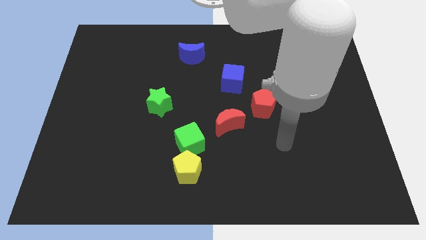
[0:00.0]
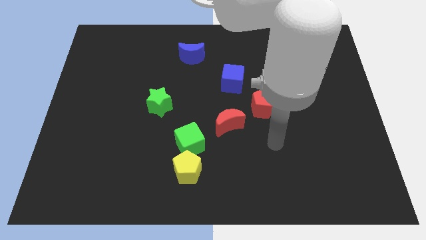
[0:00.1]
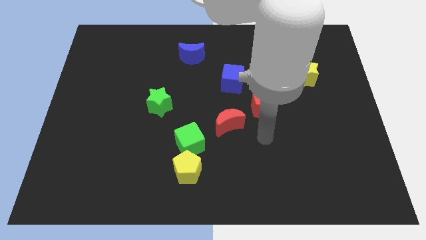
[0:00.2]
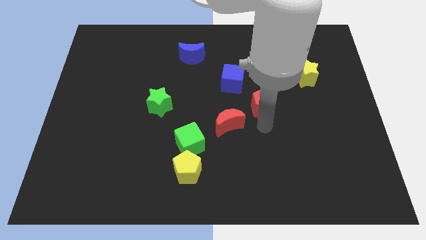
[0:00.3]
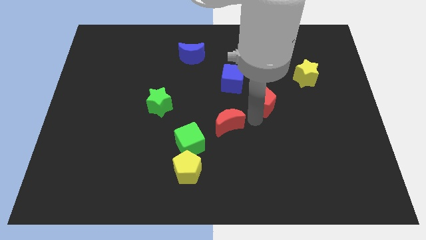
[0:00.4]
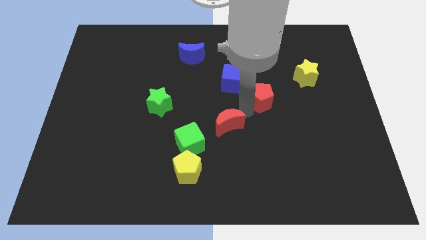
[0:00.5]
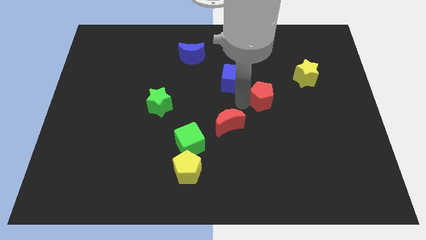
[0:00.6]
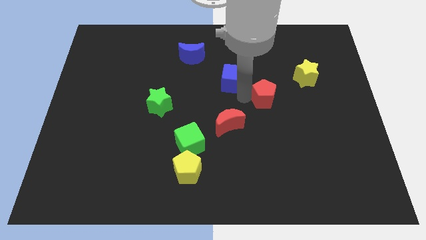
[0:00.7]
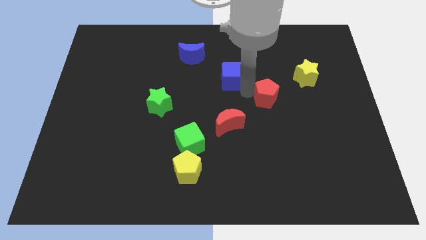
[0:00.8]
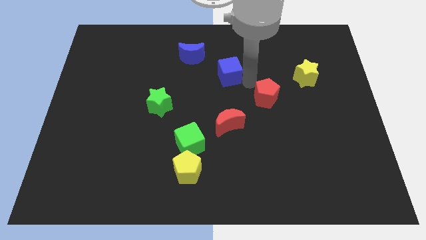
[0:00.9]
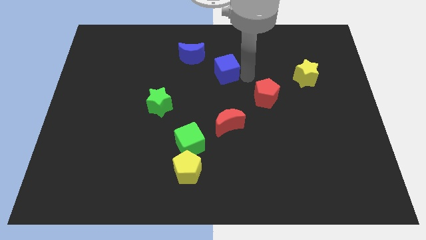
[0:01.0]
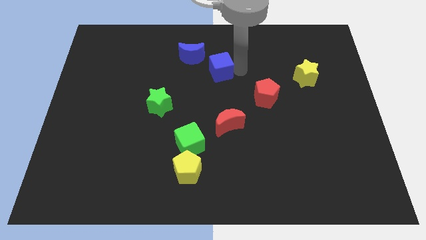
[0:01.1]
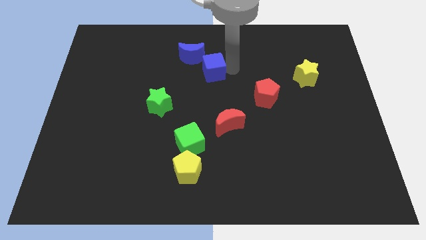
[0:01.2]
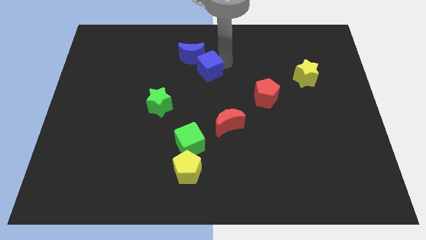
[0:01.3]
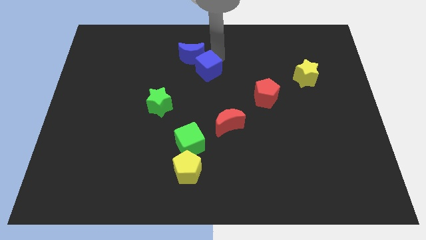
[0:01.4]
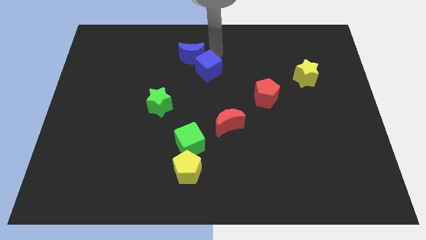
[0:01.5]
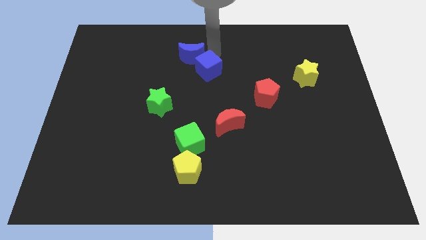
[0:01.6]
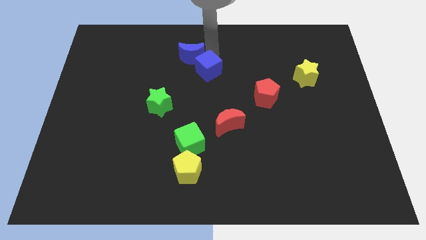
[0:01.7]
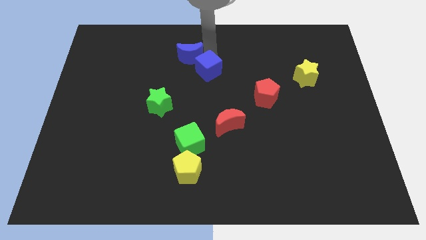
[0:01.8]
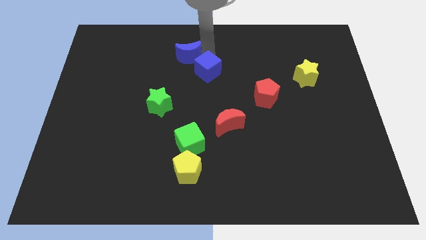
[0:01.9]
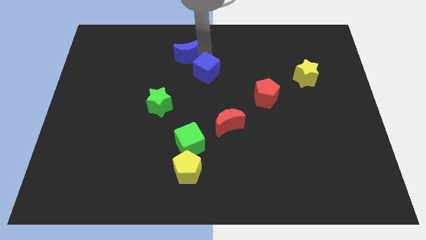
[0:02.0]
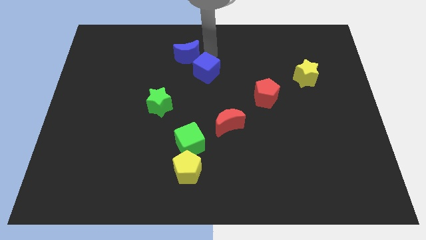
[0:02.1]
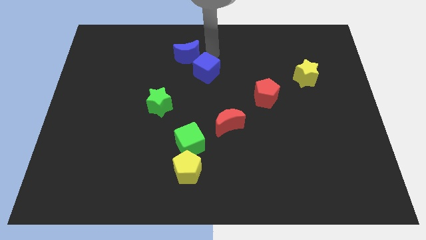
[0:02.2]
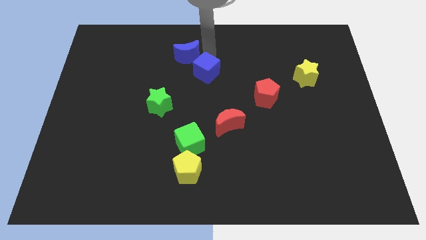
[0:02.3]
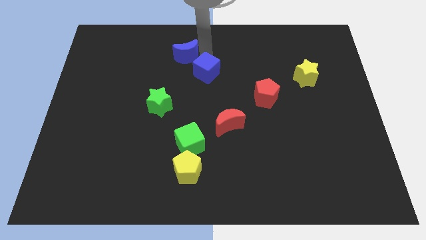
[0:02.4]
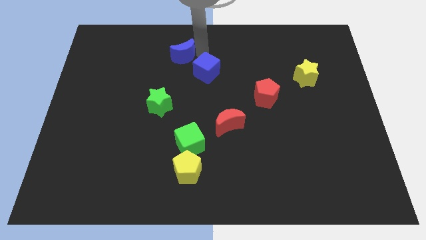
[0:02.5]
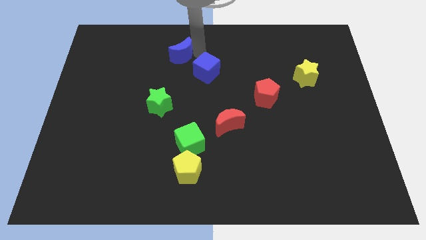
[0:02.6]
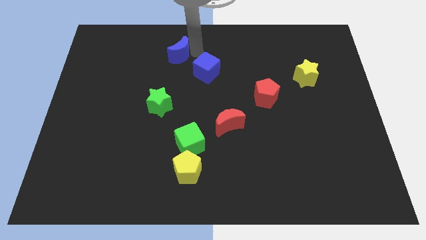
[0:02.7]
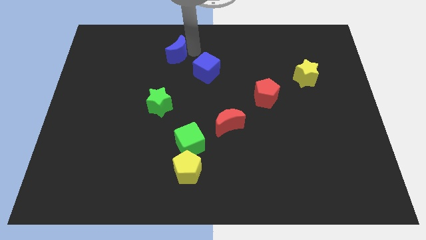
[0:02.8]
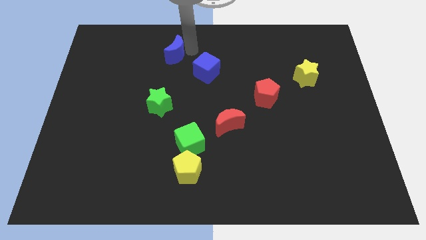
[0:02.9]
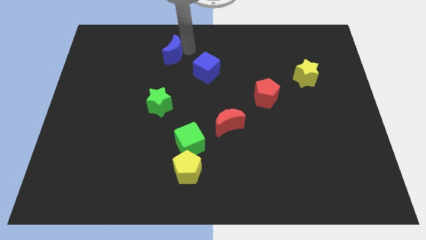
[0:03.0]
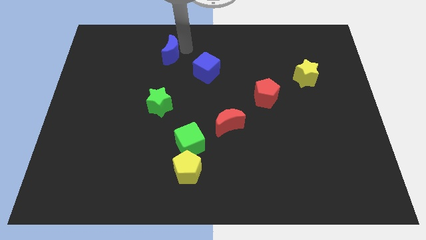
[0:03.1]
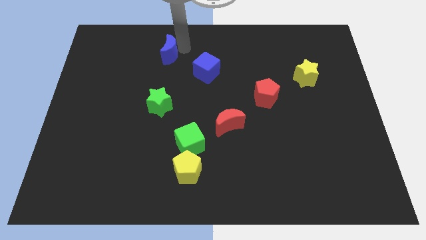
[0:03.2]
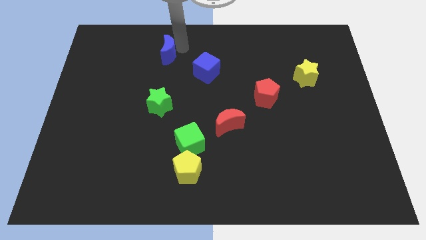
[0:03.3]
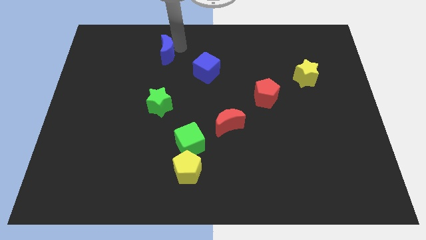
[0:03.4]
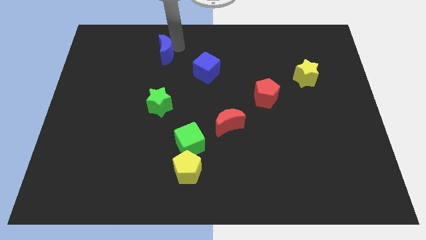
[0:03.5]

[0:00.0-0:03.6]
slide the blue moon a bit to the left

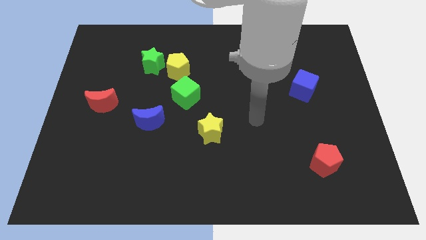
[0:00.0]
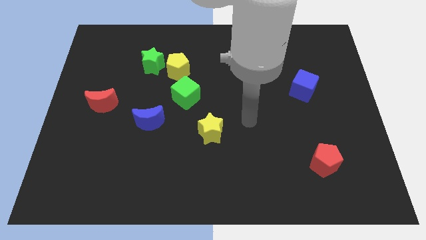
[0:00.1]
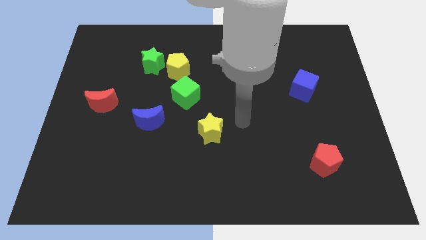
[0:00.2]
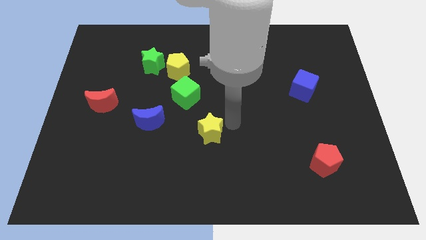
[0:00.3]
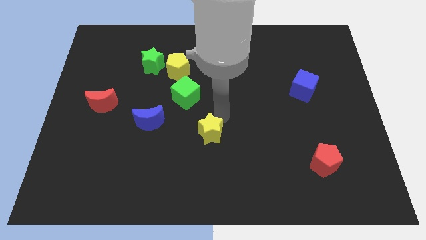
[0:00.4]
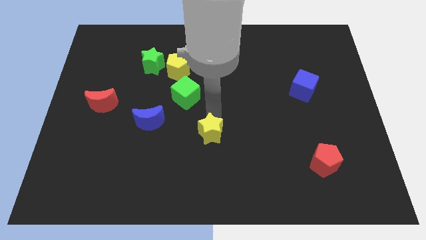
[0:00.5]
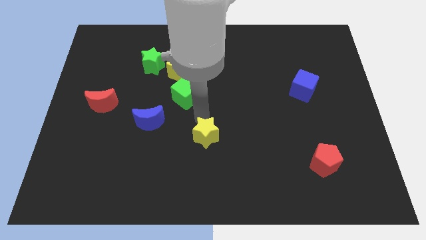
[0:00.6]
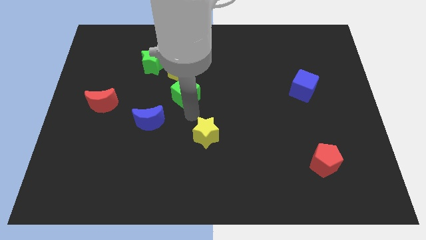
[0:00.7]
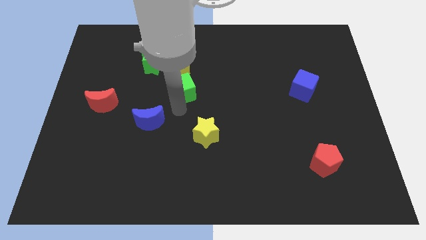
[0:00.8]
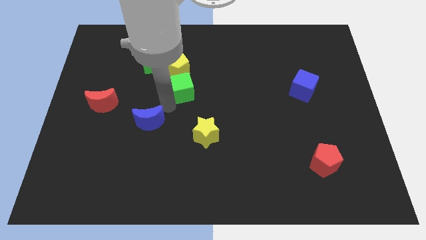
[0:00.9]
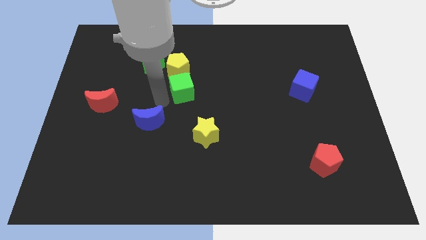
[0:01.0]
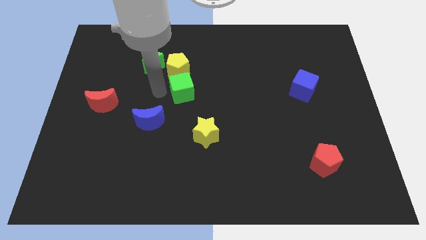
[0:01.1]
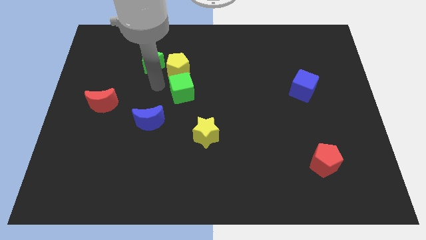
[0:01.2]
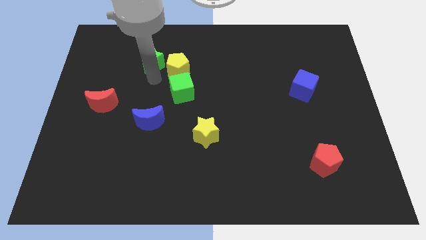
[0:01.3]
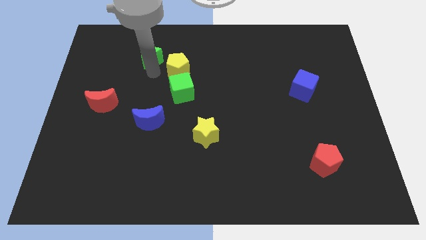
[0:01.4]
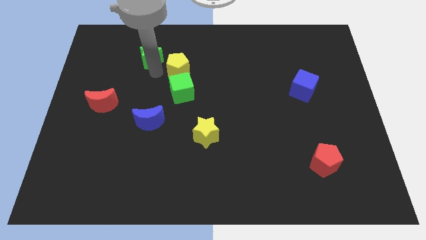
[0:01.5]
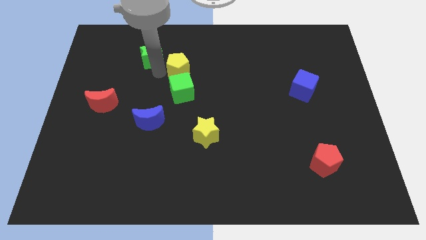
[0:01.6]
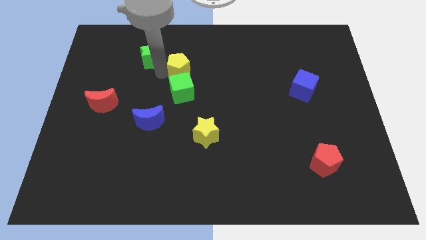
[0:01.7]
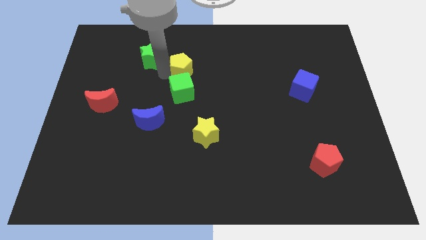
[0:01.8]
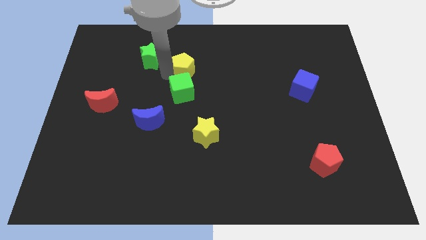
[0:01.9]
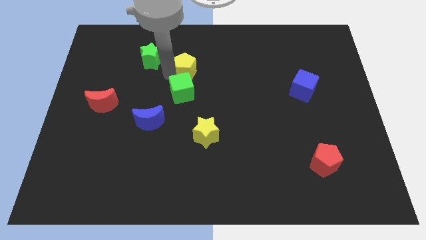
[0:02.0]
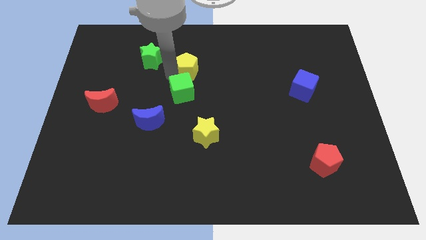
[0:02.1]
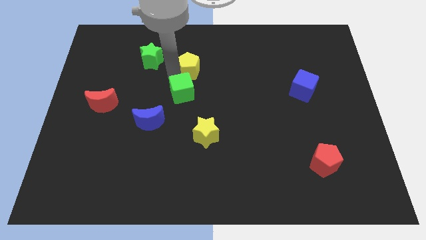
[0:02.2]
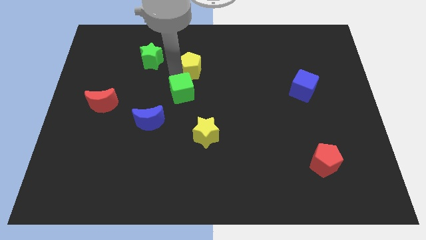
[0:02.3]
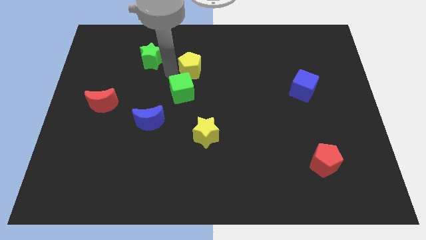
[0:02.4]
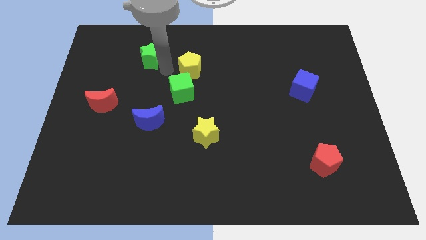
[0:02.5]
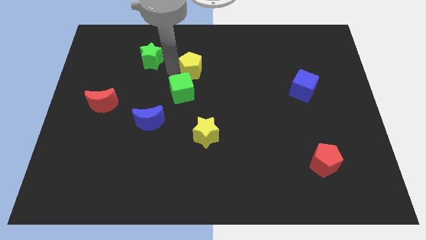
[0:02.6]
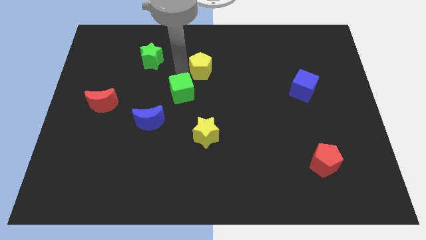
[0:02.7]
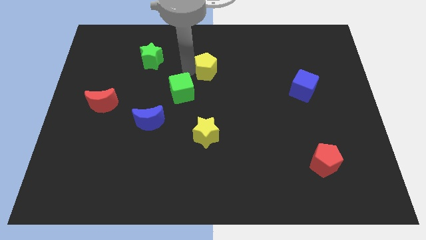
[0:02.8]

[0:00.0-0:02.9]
slide the yellow pentagon right a little bit

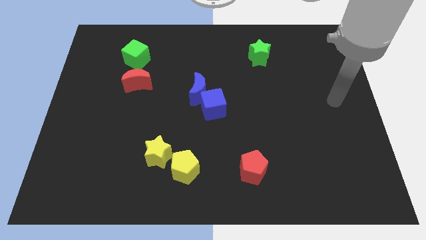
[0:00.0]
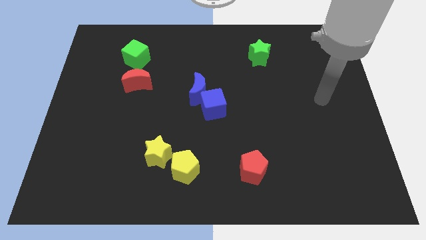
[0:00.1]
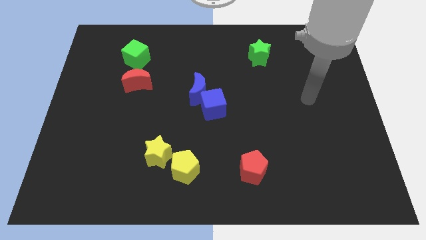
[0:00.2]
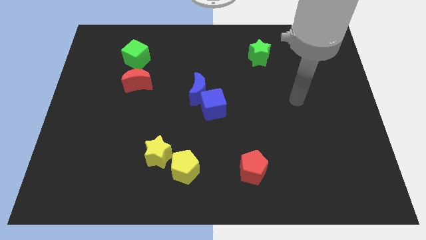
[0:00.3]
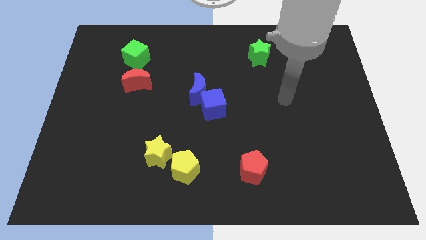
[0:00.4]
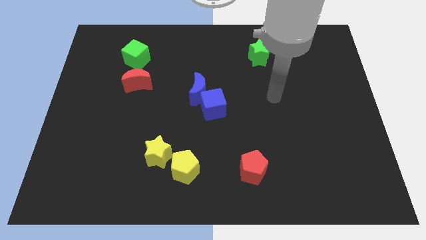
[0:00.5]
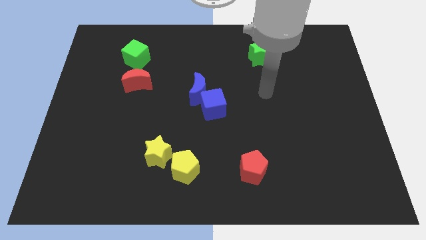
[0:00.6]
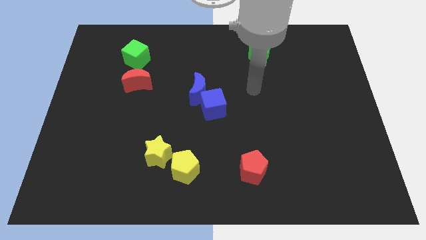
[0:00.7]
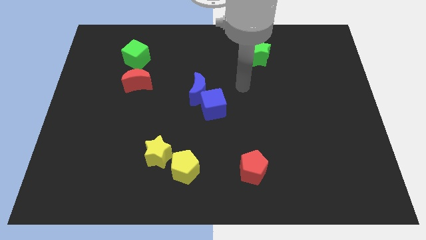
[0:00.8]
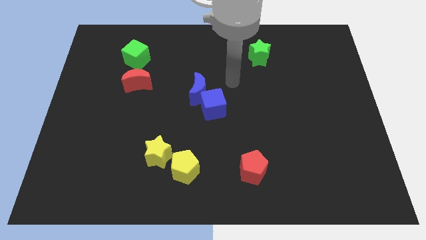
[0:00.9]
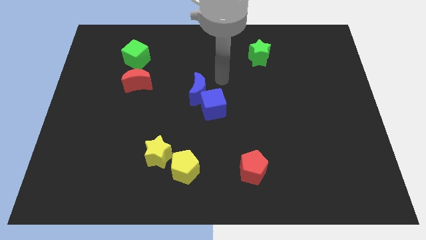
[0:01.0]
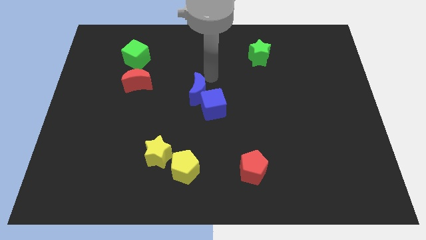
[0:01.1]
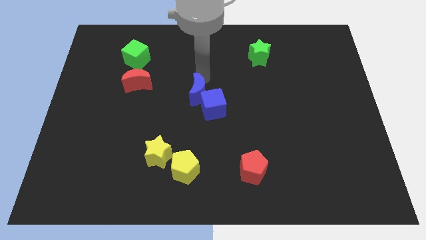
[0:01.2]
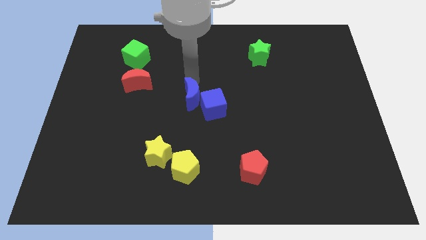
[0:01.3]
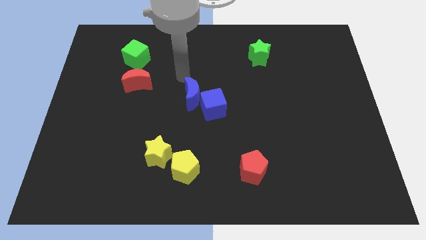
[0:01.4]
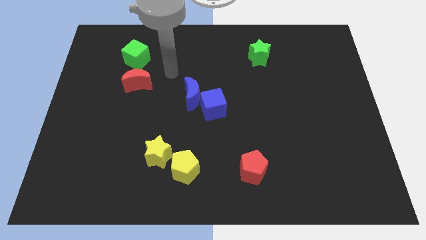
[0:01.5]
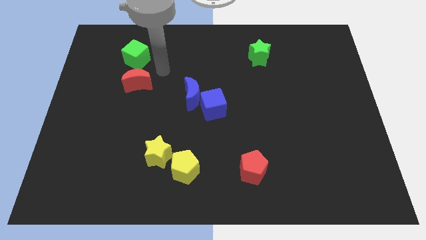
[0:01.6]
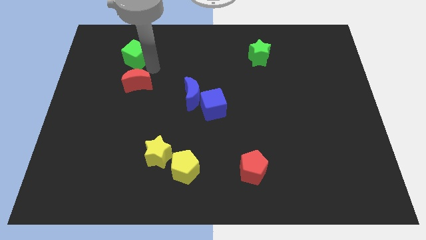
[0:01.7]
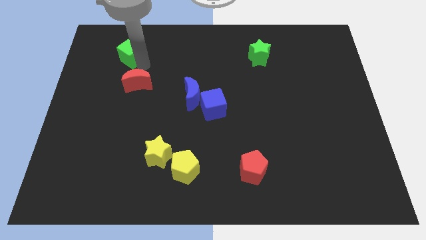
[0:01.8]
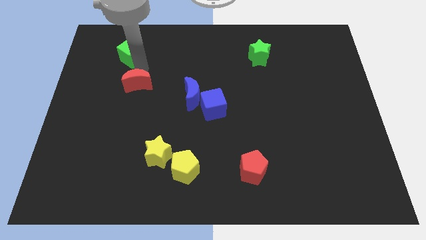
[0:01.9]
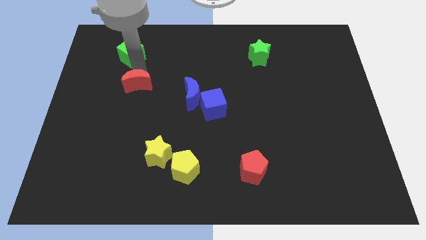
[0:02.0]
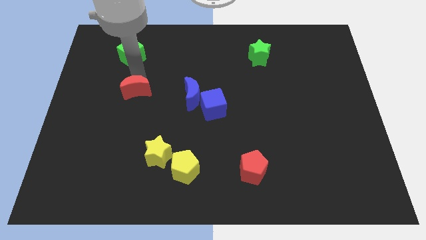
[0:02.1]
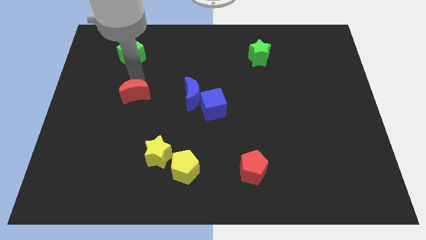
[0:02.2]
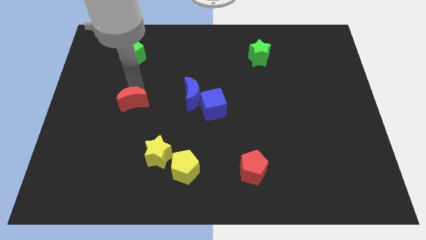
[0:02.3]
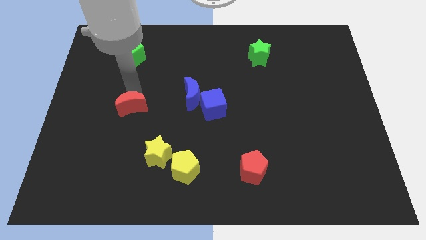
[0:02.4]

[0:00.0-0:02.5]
slightly push the red moon downwards
